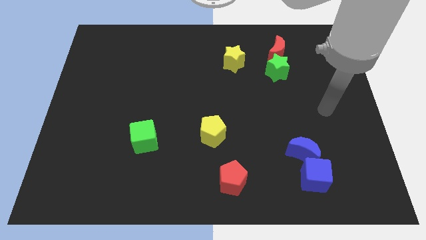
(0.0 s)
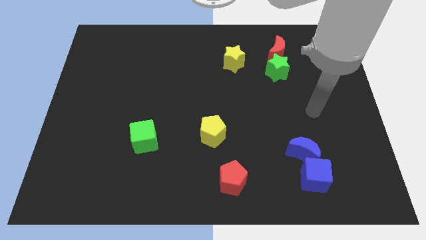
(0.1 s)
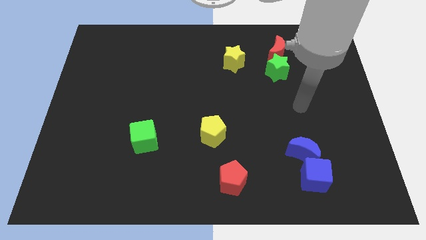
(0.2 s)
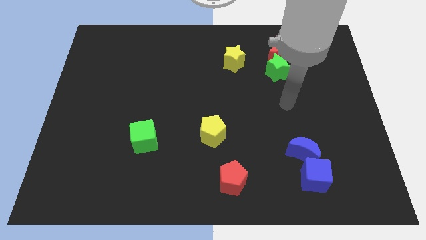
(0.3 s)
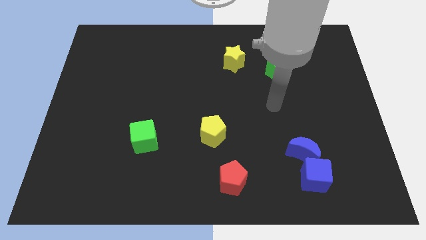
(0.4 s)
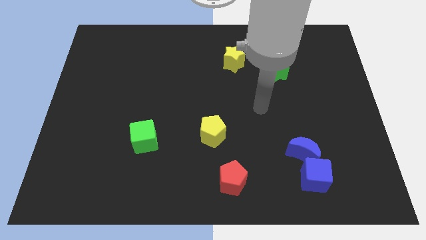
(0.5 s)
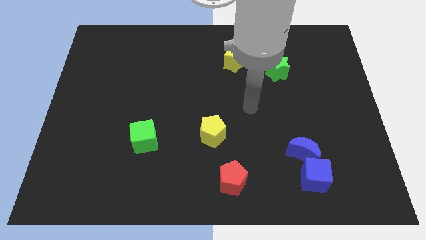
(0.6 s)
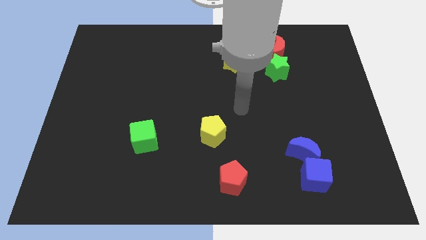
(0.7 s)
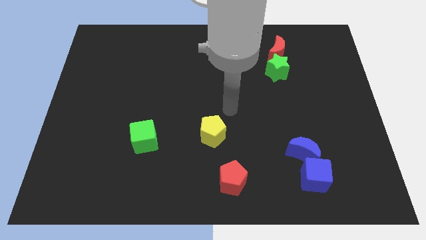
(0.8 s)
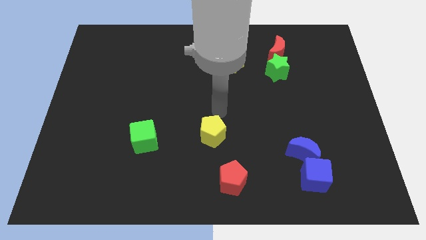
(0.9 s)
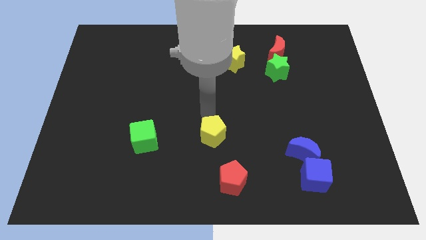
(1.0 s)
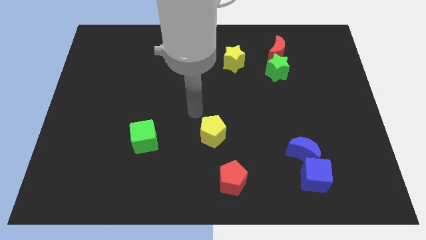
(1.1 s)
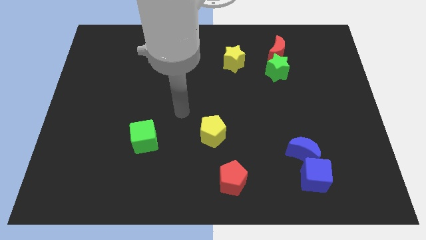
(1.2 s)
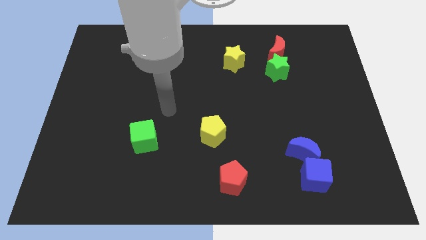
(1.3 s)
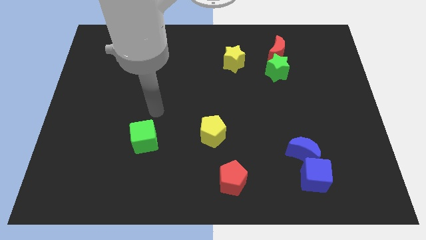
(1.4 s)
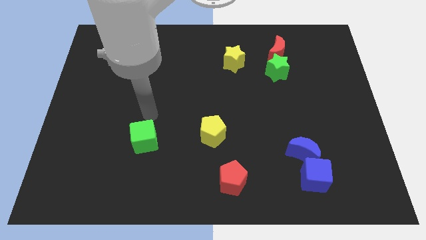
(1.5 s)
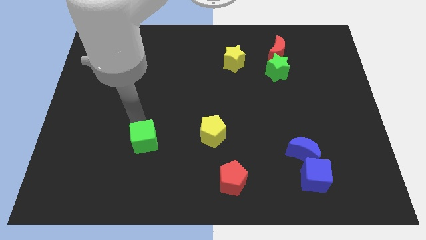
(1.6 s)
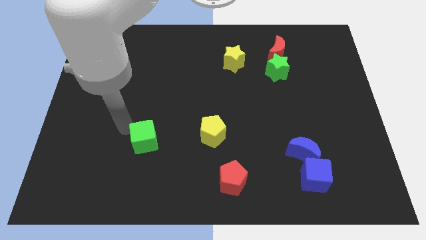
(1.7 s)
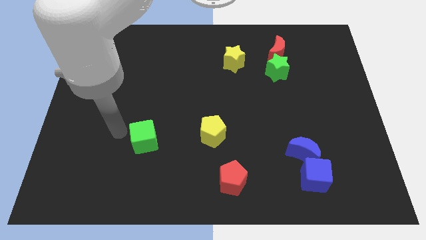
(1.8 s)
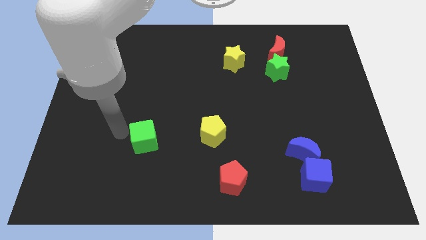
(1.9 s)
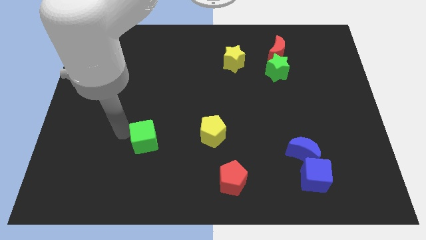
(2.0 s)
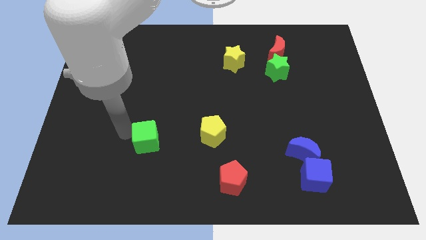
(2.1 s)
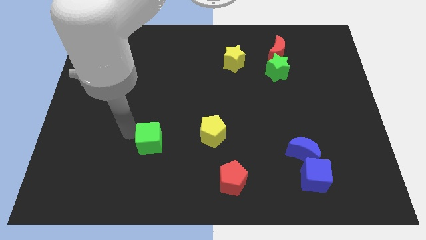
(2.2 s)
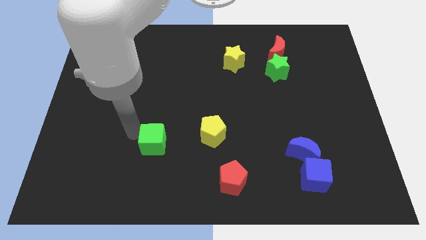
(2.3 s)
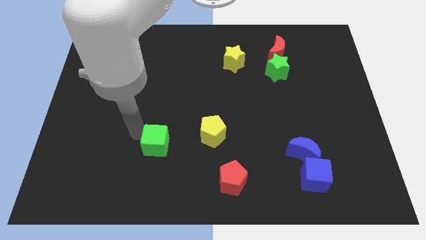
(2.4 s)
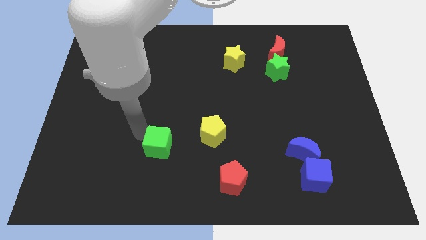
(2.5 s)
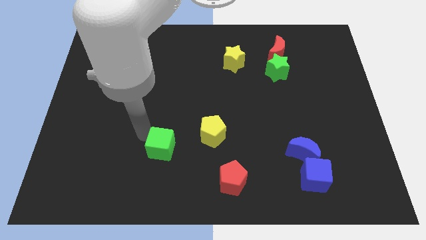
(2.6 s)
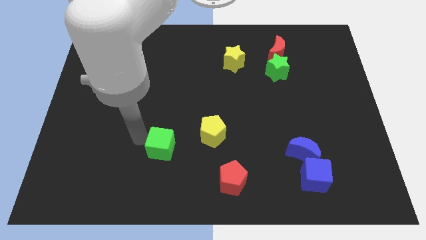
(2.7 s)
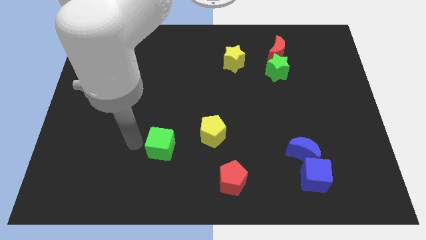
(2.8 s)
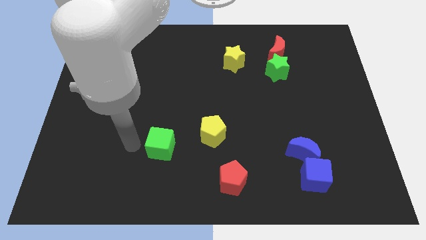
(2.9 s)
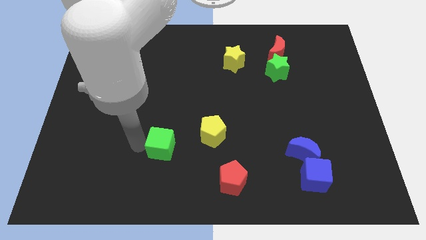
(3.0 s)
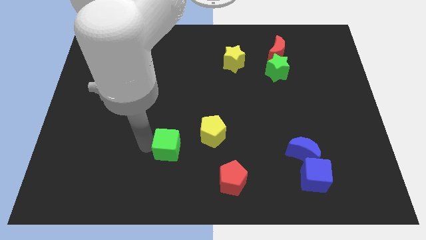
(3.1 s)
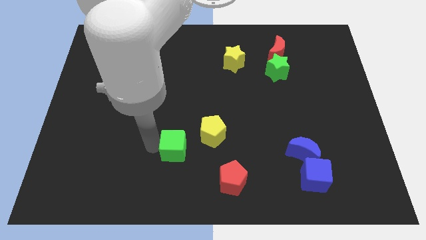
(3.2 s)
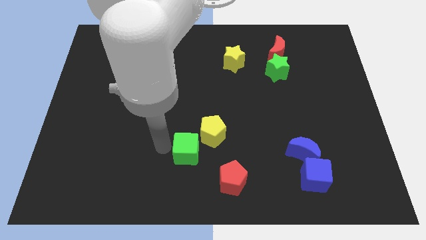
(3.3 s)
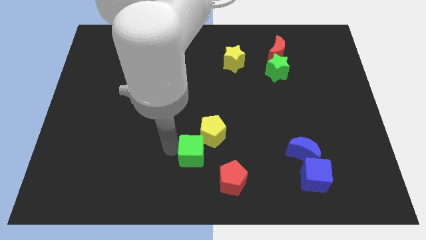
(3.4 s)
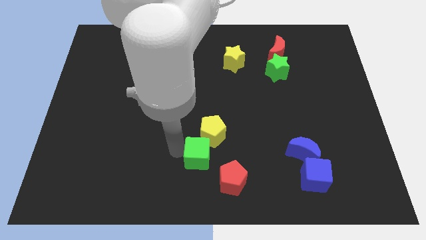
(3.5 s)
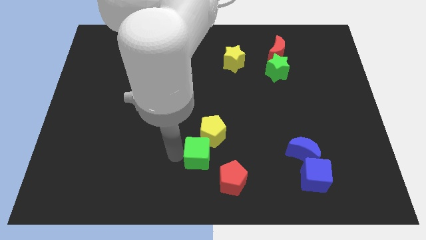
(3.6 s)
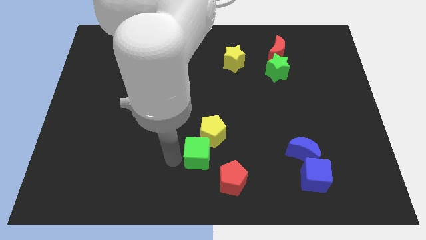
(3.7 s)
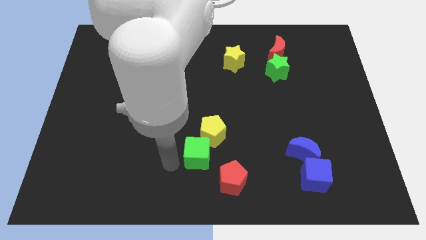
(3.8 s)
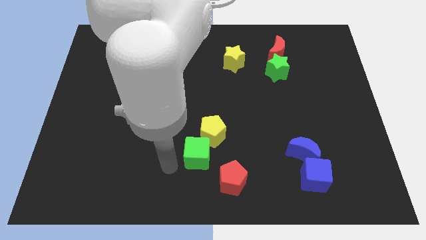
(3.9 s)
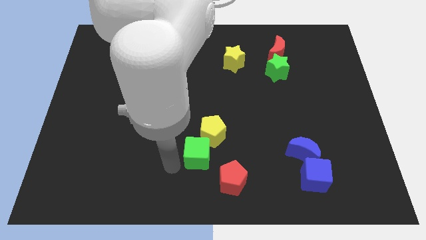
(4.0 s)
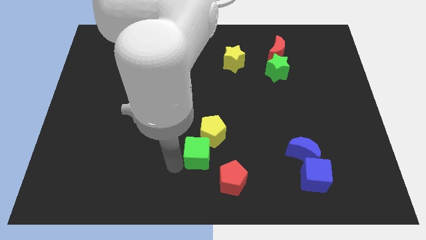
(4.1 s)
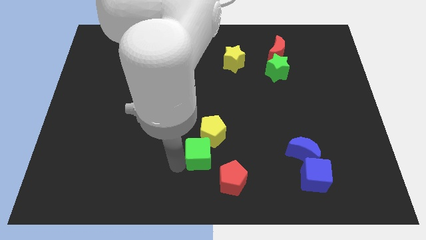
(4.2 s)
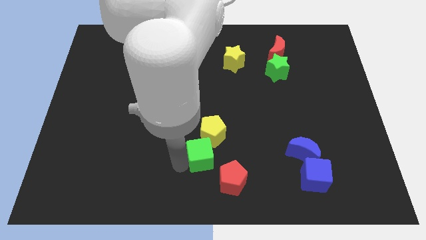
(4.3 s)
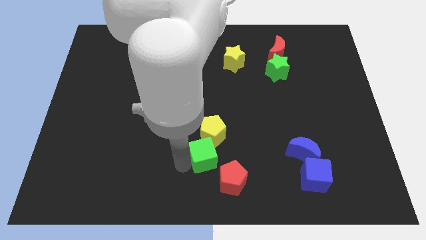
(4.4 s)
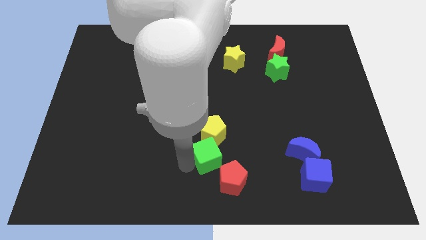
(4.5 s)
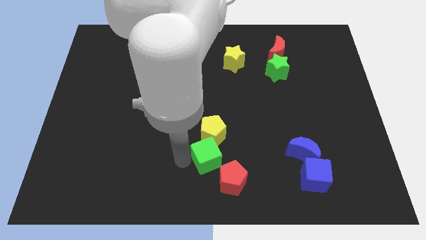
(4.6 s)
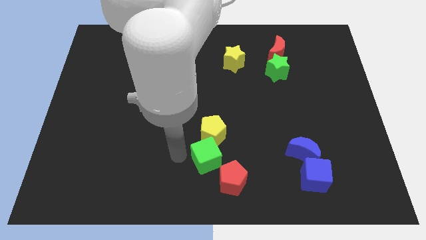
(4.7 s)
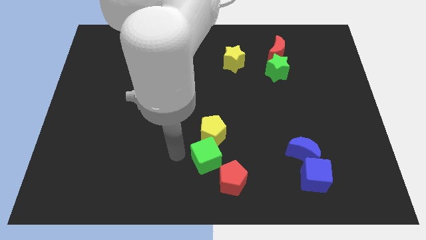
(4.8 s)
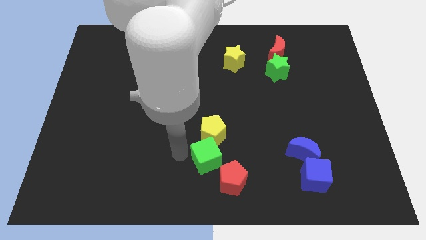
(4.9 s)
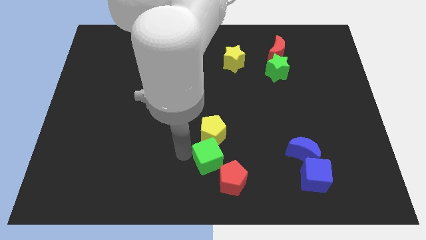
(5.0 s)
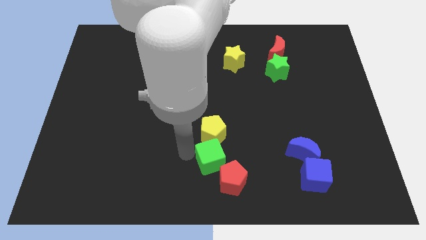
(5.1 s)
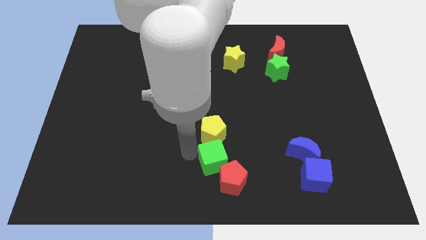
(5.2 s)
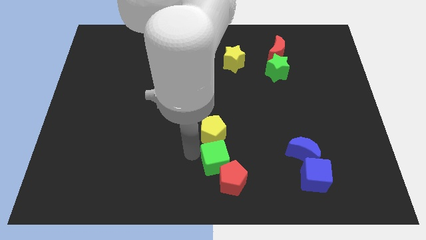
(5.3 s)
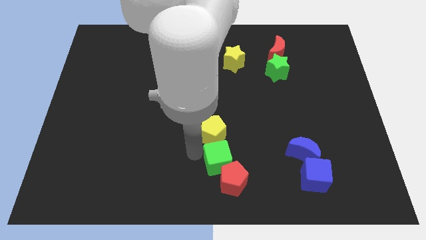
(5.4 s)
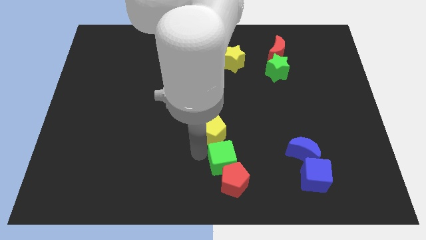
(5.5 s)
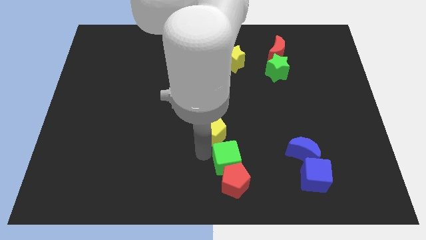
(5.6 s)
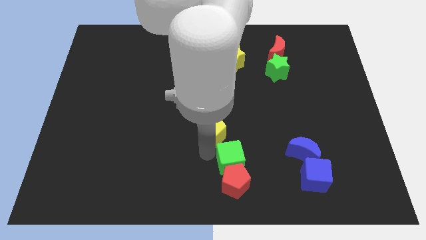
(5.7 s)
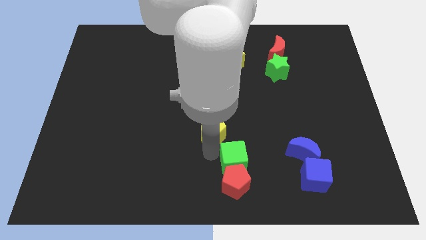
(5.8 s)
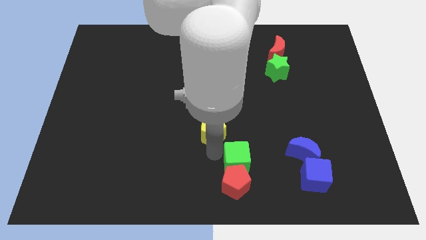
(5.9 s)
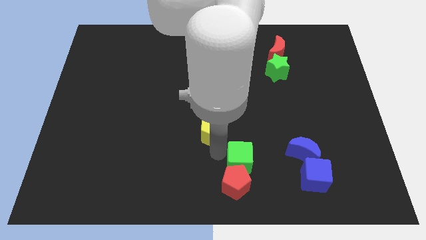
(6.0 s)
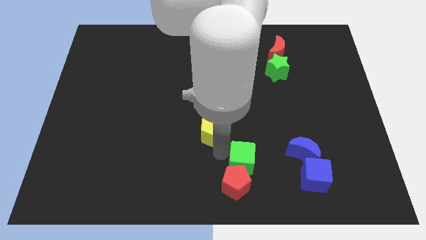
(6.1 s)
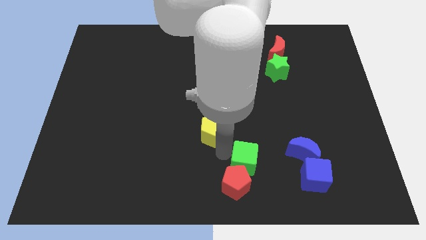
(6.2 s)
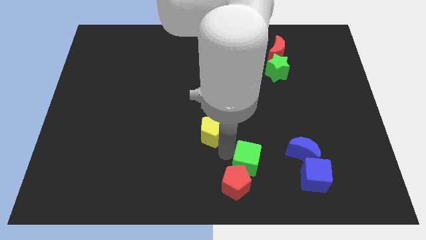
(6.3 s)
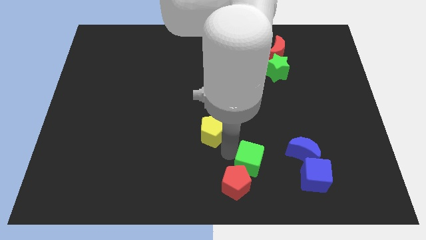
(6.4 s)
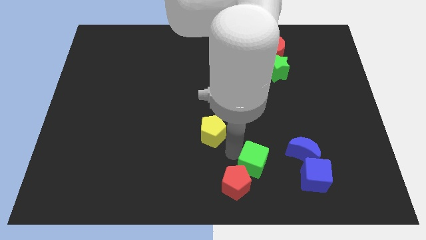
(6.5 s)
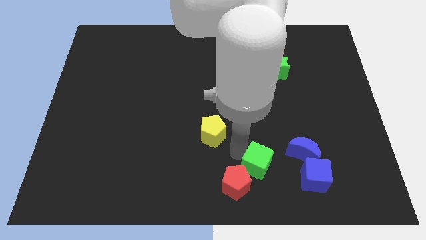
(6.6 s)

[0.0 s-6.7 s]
move the green cube to the right of the red pentagon
